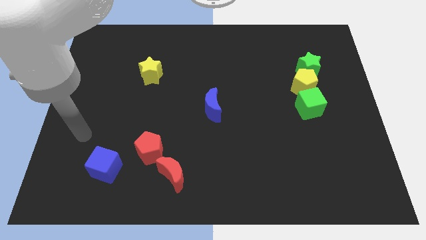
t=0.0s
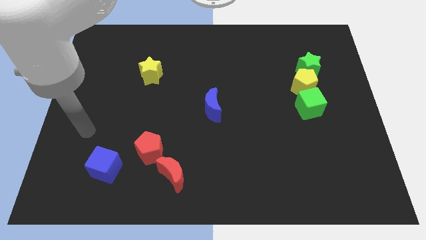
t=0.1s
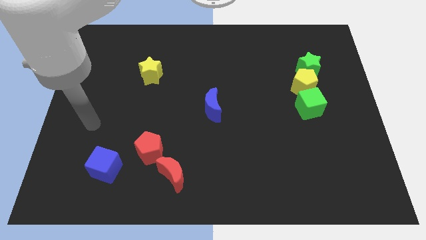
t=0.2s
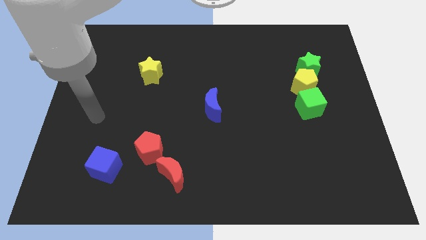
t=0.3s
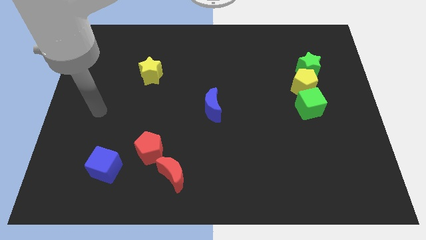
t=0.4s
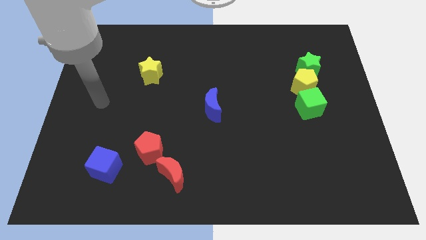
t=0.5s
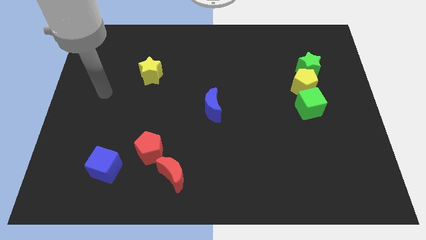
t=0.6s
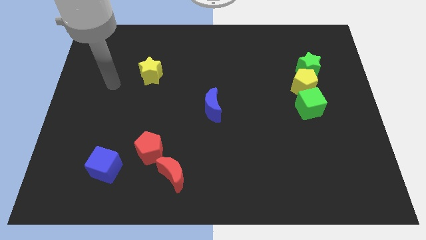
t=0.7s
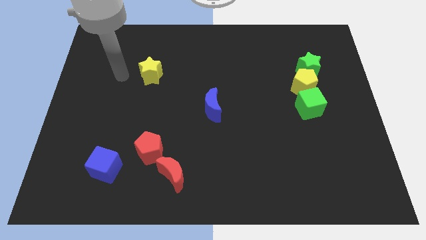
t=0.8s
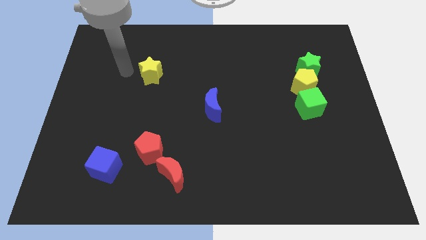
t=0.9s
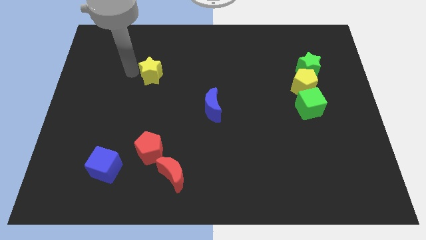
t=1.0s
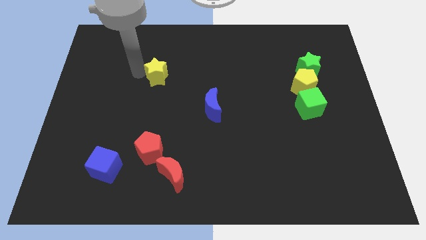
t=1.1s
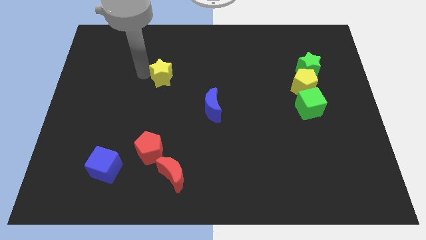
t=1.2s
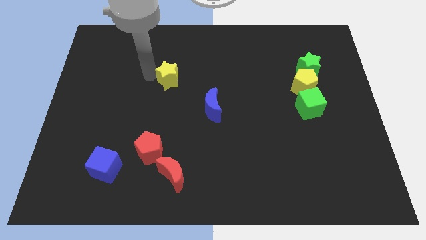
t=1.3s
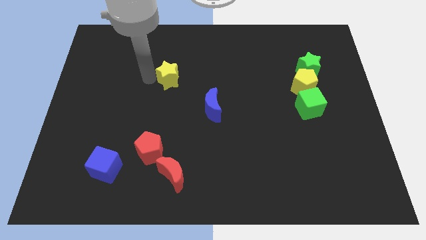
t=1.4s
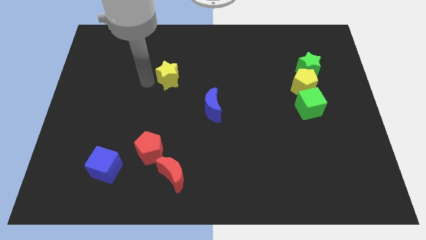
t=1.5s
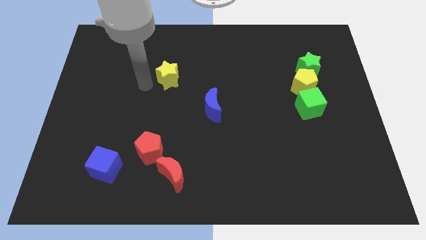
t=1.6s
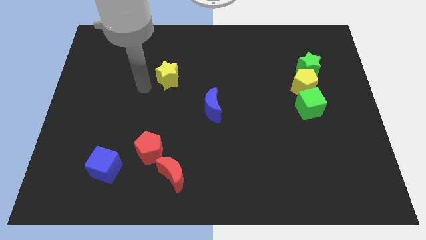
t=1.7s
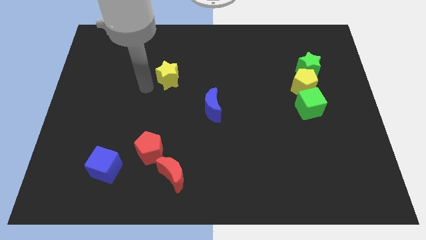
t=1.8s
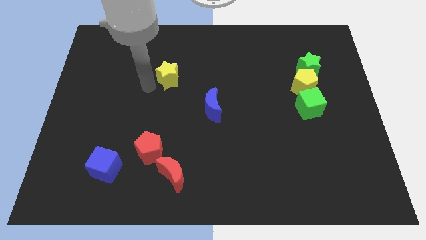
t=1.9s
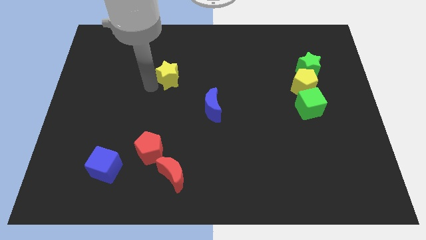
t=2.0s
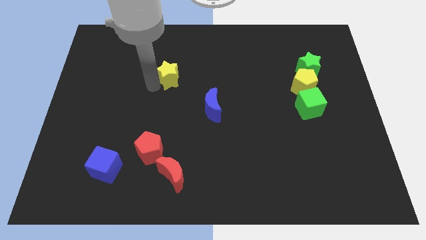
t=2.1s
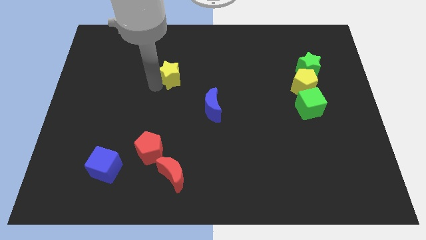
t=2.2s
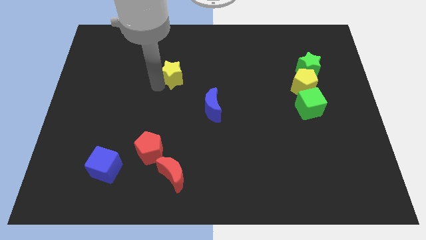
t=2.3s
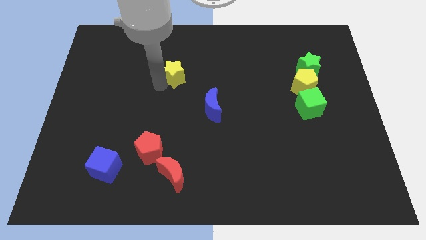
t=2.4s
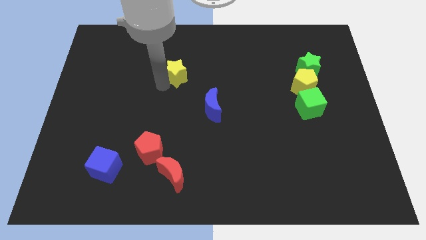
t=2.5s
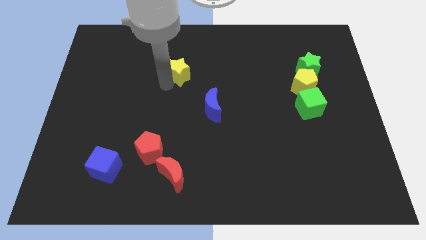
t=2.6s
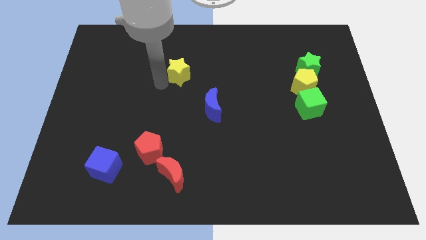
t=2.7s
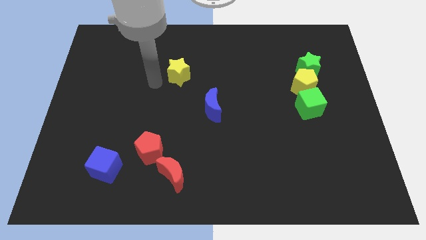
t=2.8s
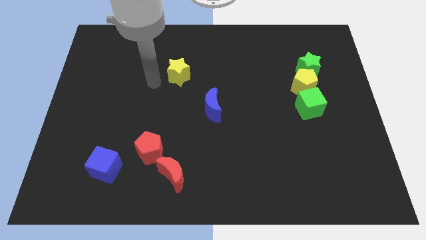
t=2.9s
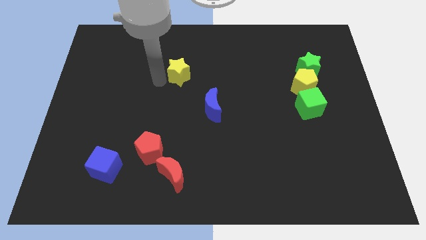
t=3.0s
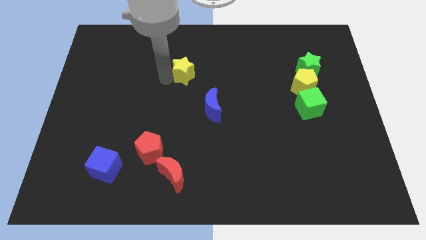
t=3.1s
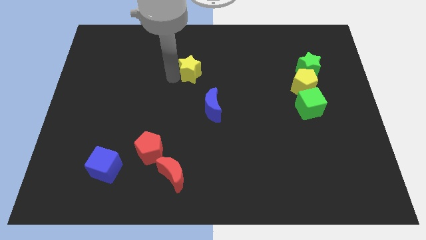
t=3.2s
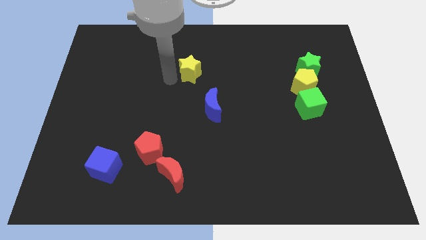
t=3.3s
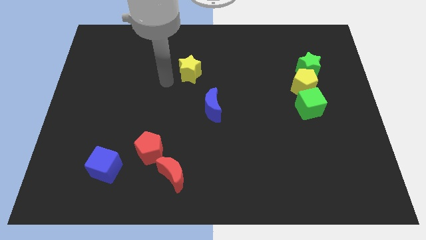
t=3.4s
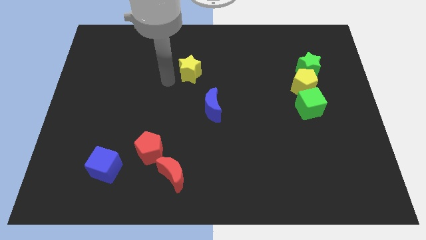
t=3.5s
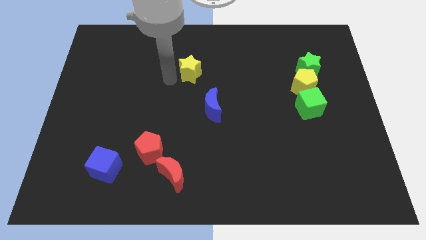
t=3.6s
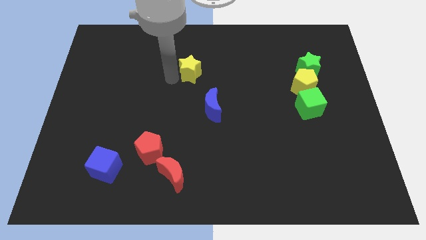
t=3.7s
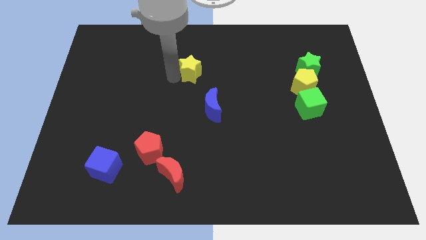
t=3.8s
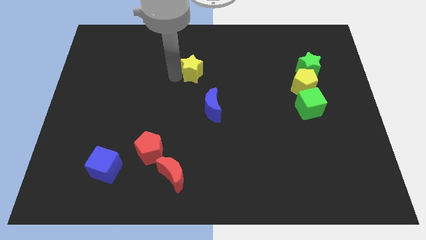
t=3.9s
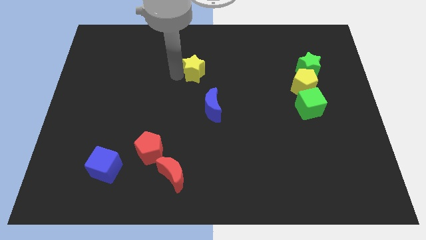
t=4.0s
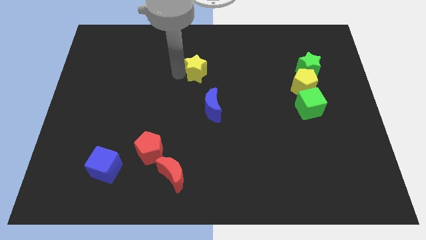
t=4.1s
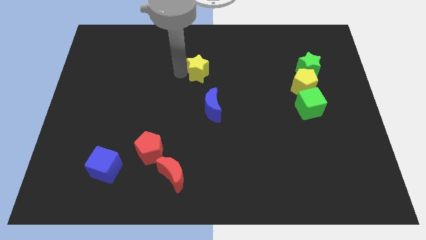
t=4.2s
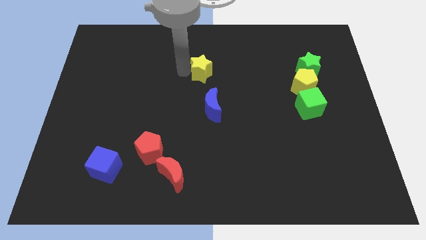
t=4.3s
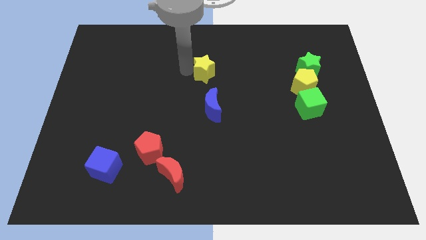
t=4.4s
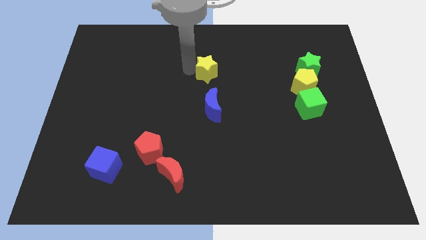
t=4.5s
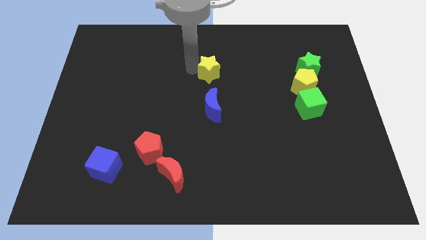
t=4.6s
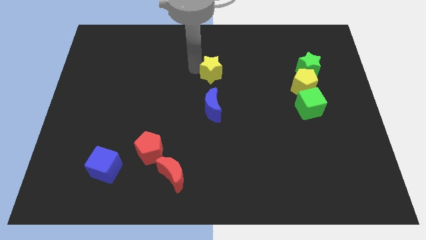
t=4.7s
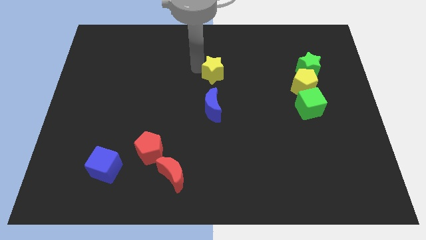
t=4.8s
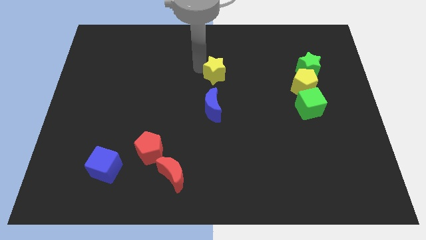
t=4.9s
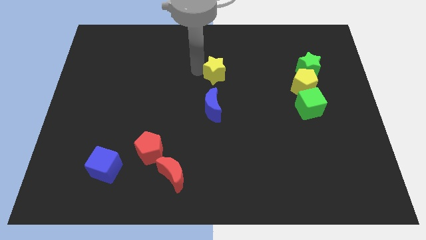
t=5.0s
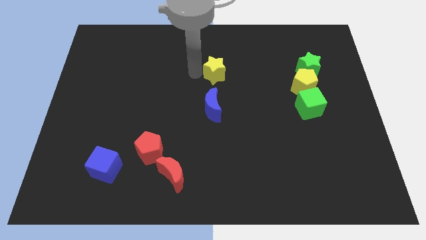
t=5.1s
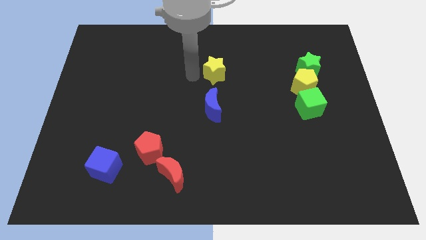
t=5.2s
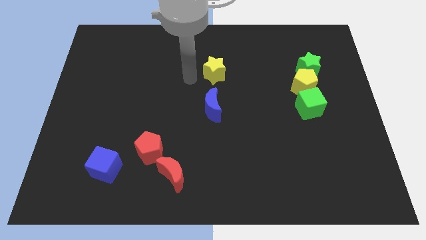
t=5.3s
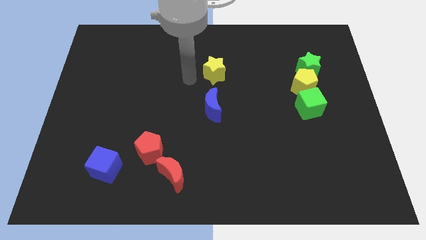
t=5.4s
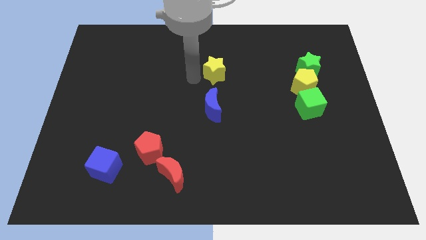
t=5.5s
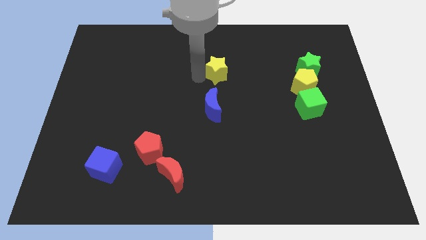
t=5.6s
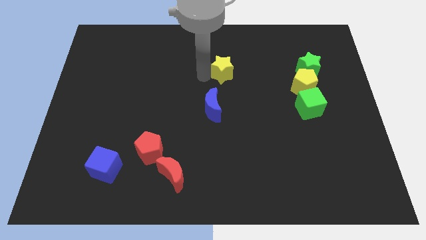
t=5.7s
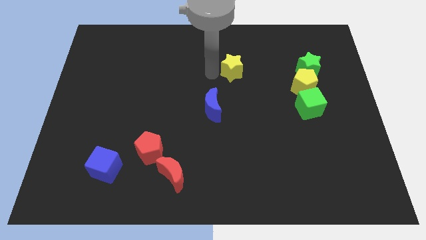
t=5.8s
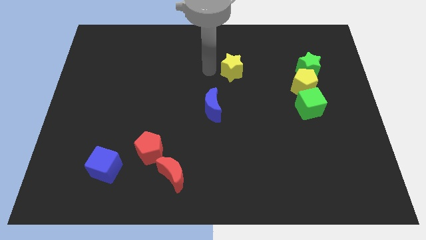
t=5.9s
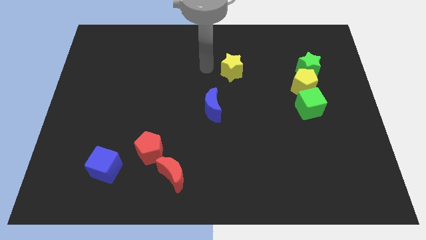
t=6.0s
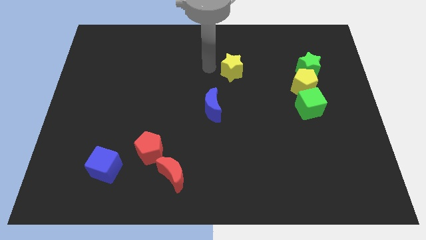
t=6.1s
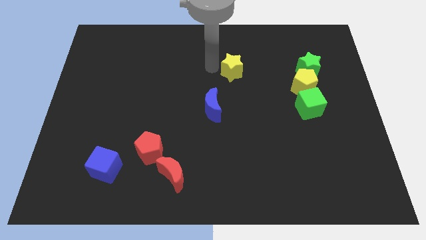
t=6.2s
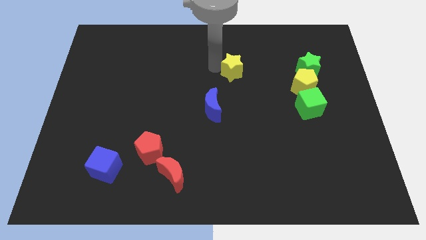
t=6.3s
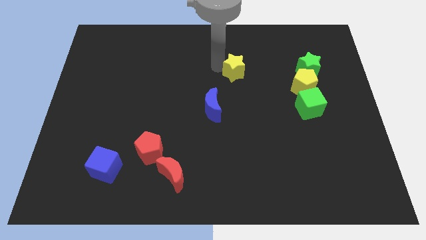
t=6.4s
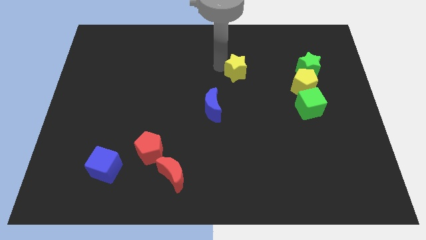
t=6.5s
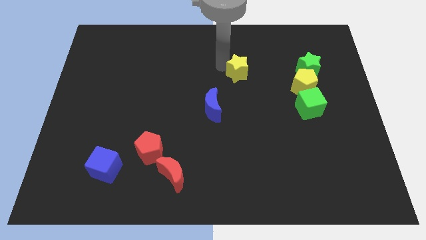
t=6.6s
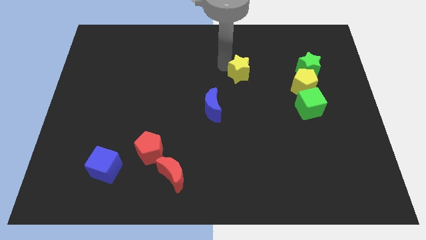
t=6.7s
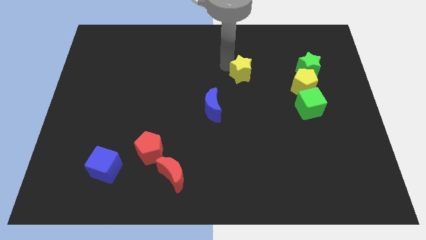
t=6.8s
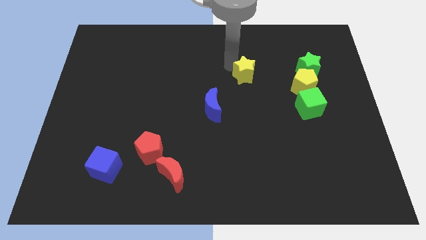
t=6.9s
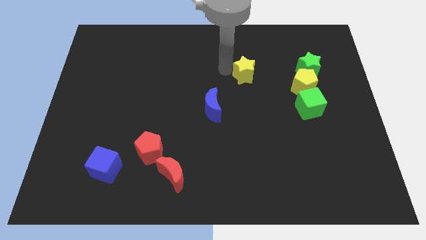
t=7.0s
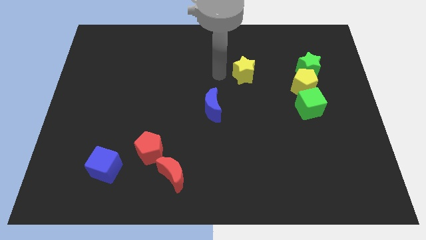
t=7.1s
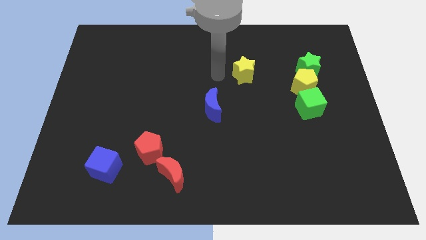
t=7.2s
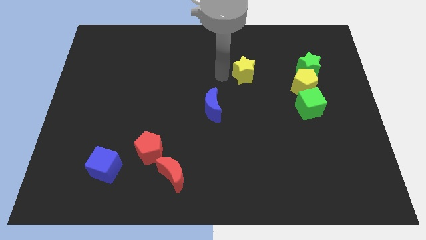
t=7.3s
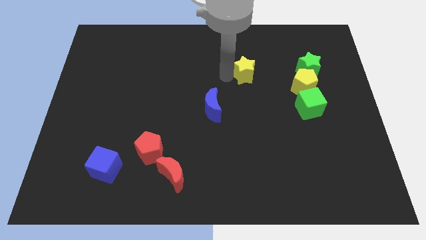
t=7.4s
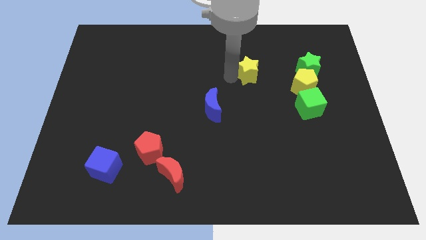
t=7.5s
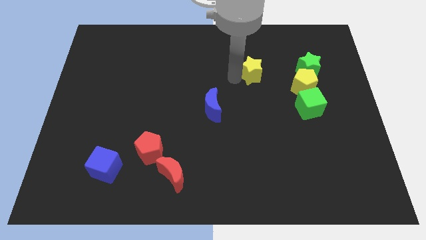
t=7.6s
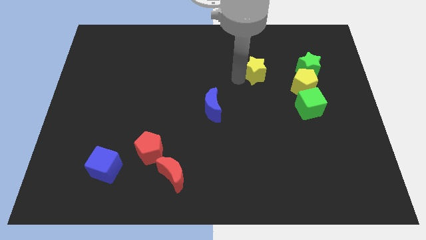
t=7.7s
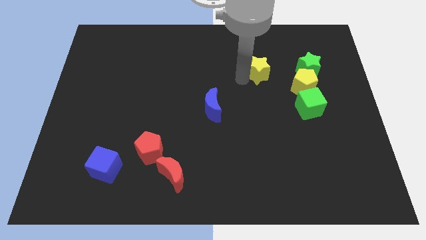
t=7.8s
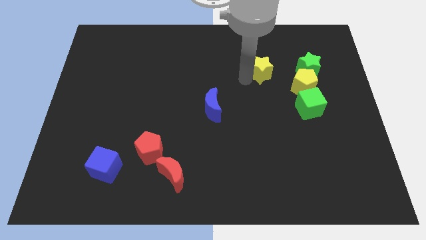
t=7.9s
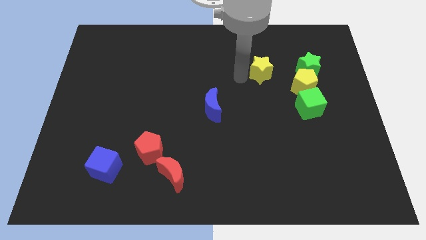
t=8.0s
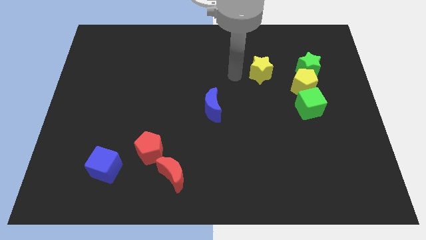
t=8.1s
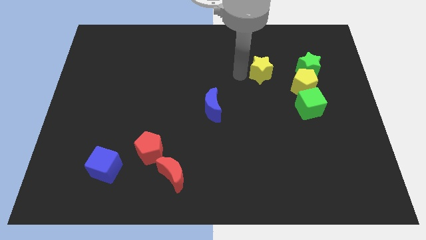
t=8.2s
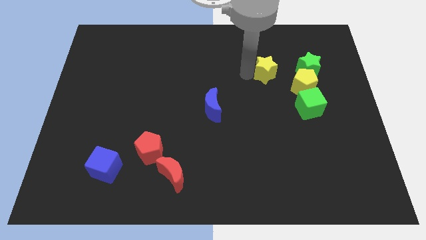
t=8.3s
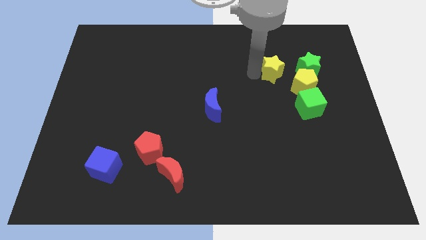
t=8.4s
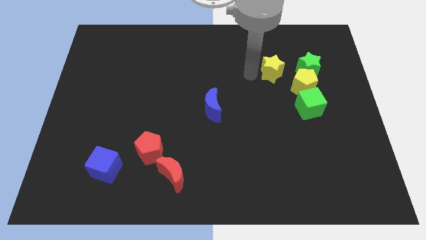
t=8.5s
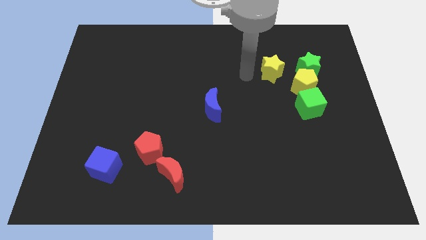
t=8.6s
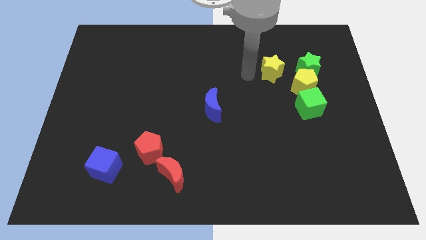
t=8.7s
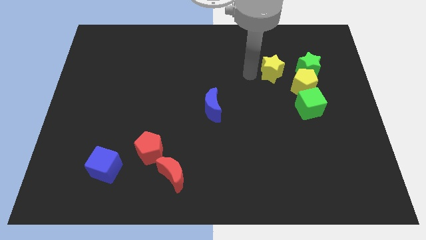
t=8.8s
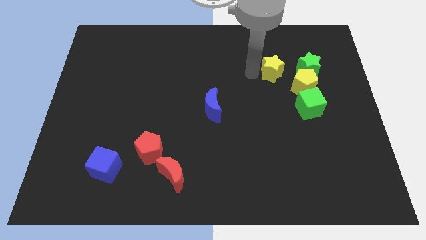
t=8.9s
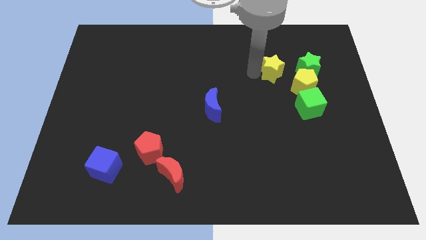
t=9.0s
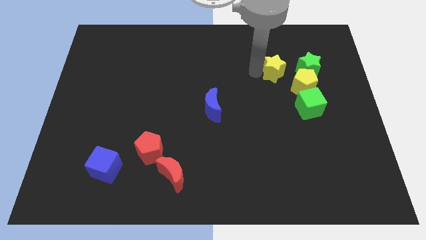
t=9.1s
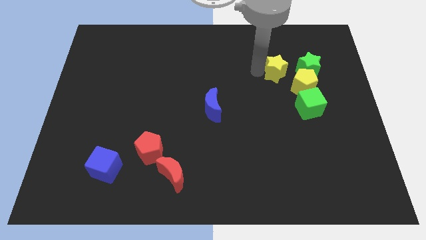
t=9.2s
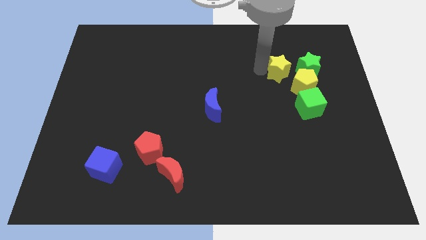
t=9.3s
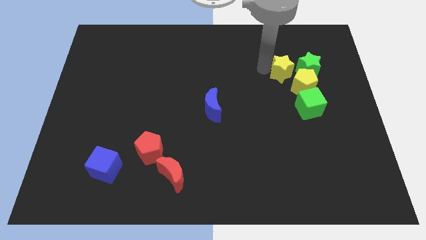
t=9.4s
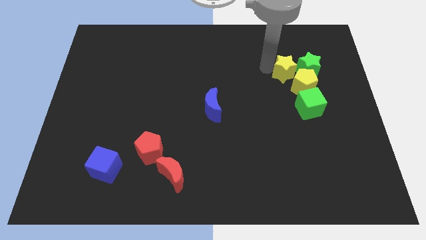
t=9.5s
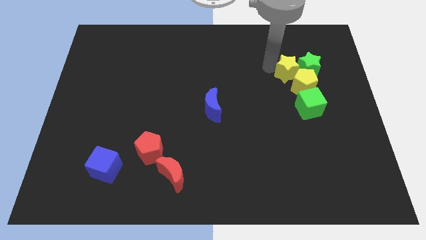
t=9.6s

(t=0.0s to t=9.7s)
put the yellow star to the green star
